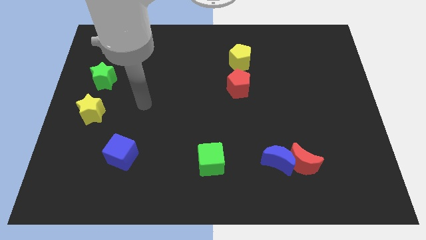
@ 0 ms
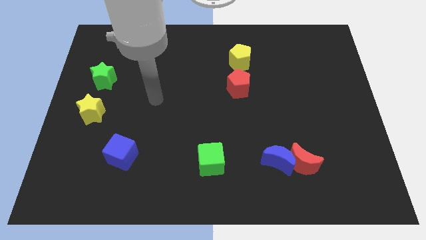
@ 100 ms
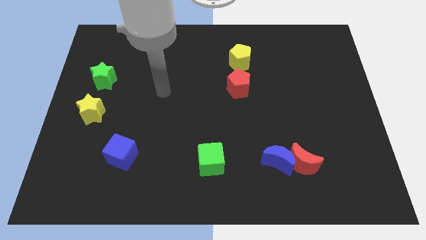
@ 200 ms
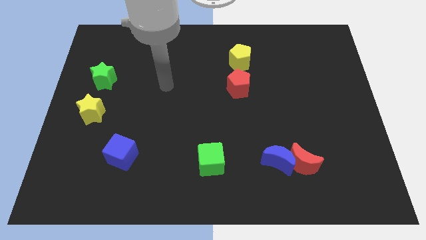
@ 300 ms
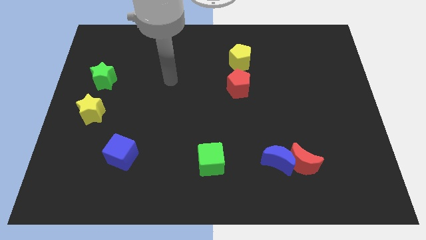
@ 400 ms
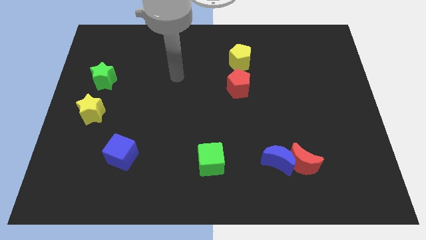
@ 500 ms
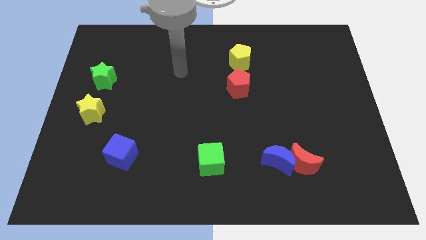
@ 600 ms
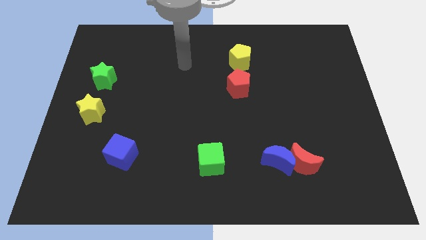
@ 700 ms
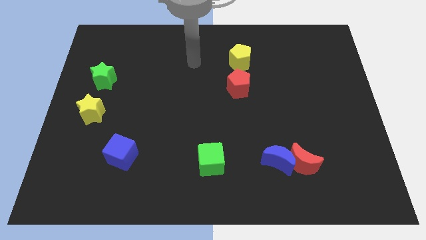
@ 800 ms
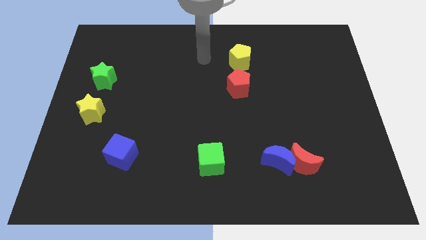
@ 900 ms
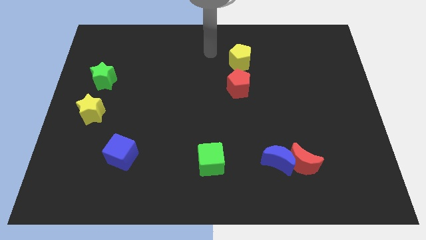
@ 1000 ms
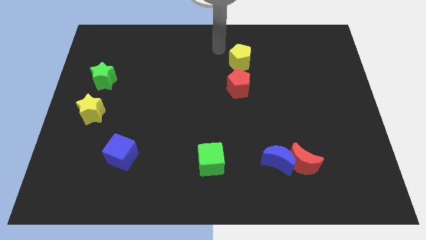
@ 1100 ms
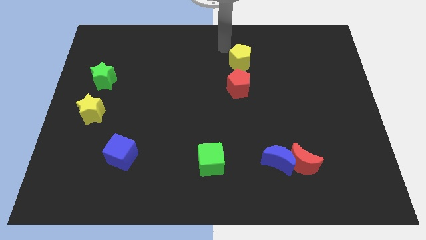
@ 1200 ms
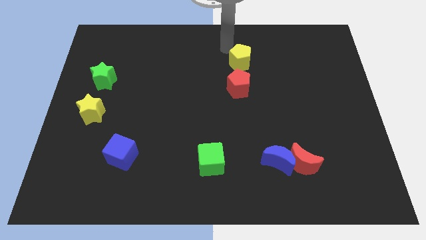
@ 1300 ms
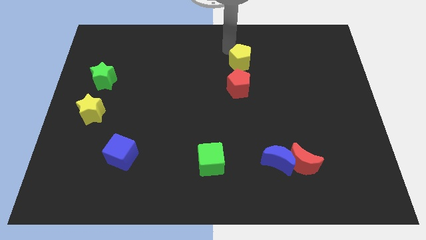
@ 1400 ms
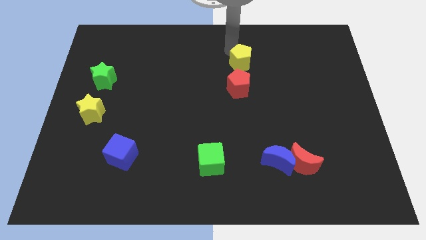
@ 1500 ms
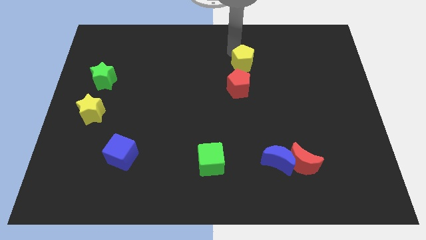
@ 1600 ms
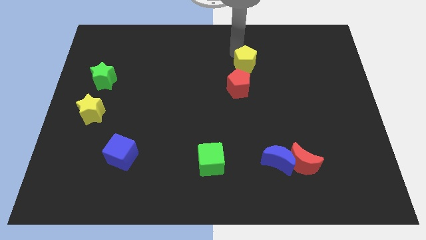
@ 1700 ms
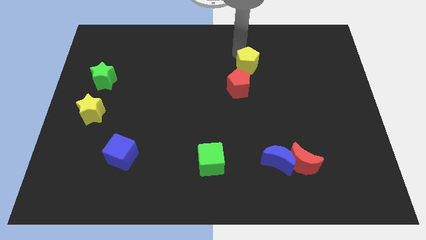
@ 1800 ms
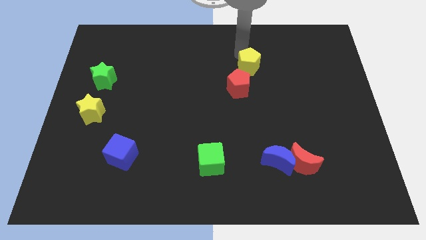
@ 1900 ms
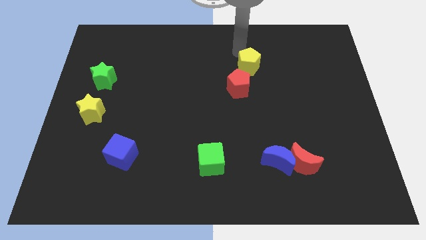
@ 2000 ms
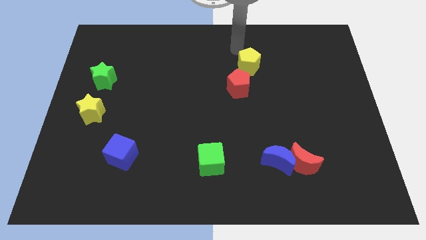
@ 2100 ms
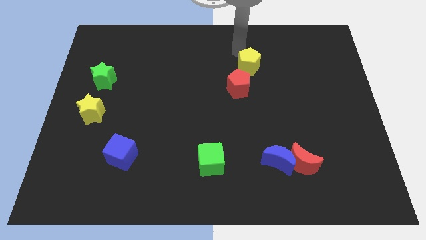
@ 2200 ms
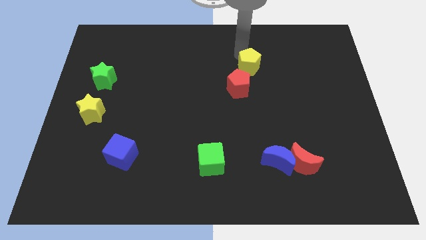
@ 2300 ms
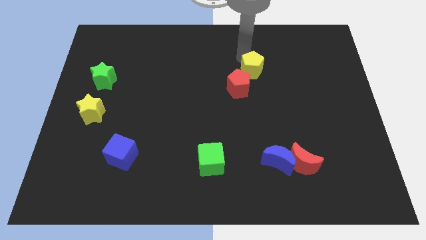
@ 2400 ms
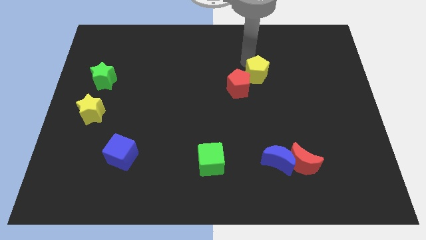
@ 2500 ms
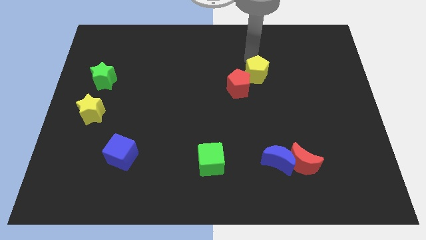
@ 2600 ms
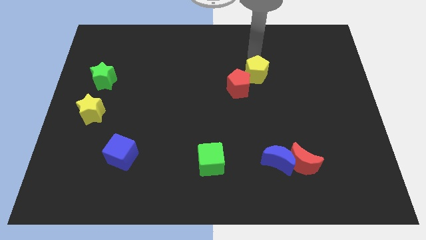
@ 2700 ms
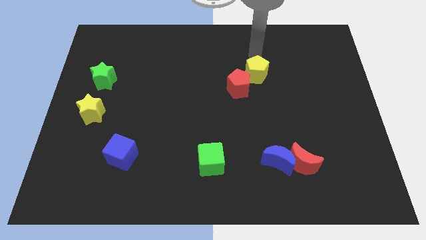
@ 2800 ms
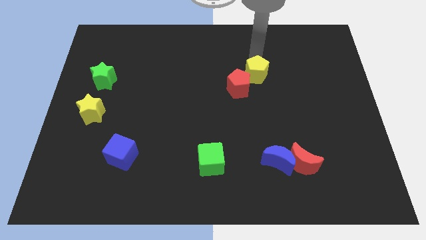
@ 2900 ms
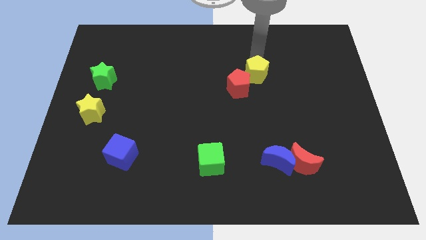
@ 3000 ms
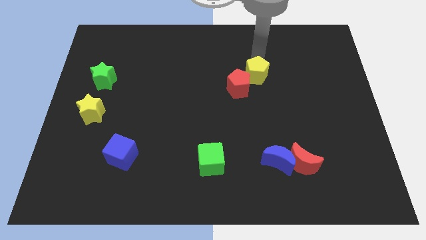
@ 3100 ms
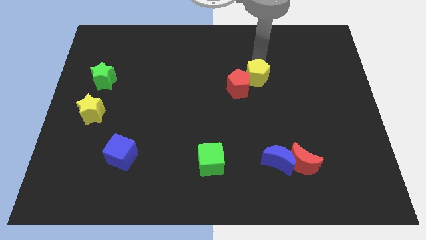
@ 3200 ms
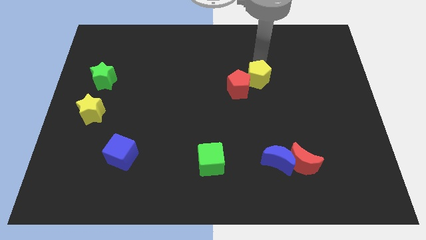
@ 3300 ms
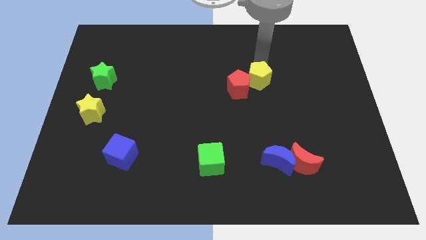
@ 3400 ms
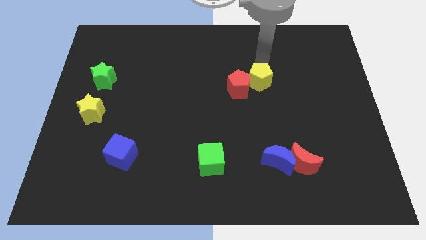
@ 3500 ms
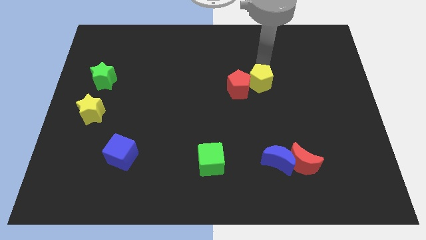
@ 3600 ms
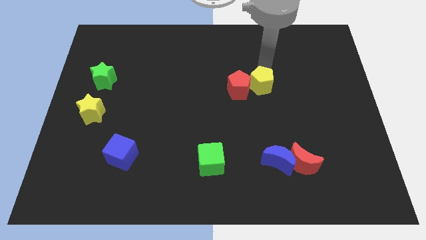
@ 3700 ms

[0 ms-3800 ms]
move the yellow pentagon slightly downwards

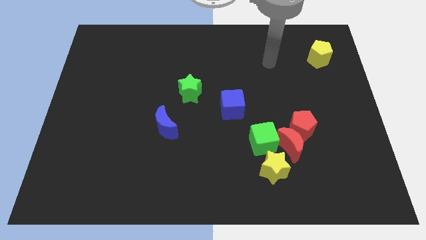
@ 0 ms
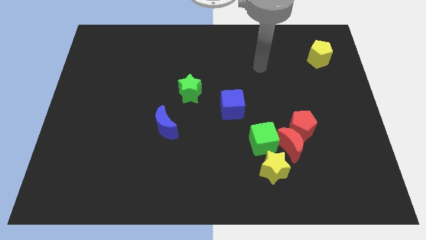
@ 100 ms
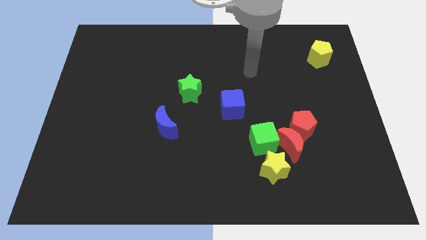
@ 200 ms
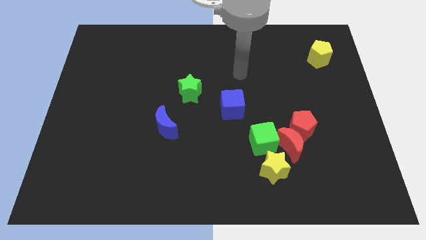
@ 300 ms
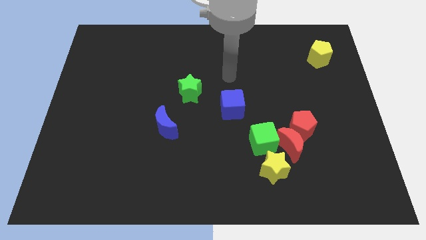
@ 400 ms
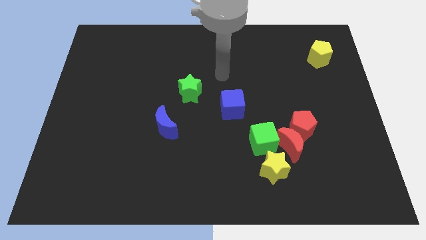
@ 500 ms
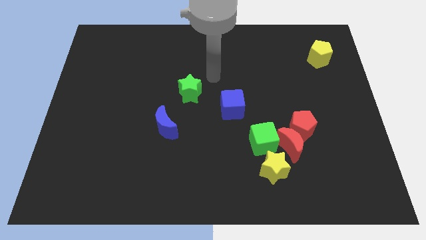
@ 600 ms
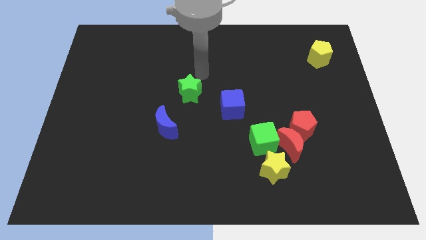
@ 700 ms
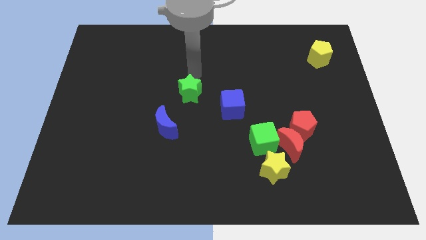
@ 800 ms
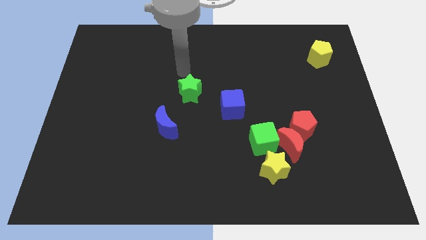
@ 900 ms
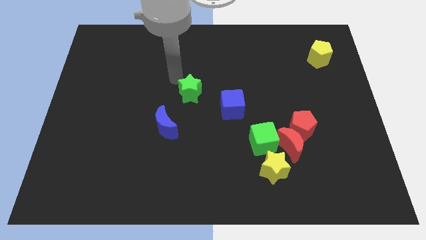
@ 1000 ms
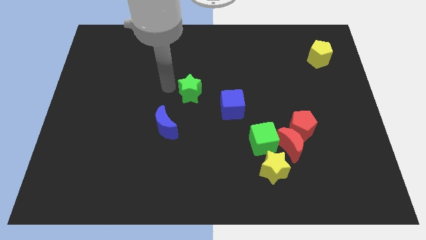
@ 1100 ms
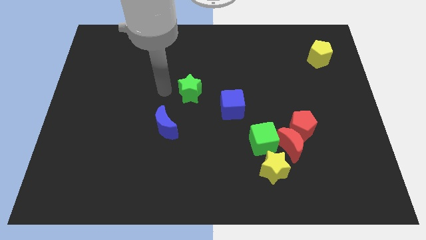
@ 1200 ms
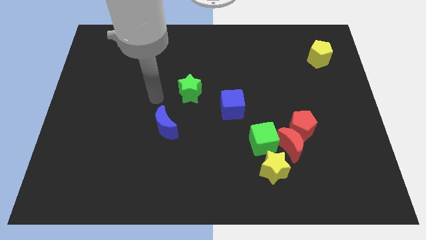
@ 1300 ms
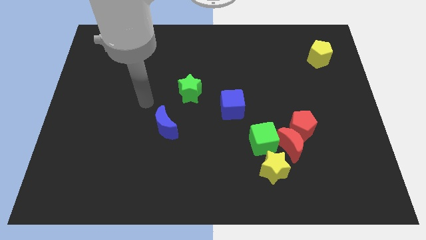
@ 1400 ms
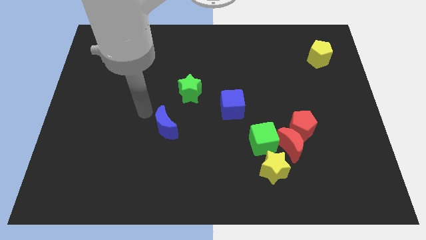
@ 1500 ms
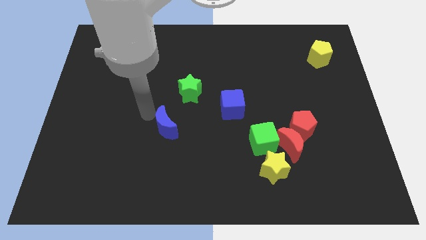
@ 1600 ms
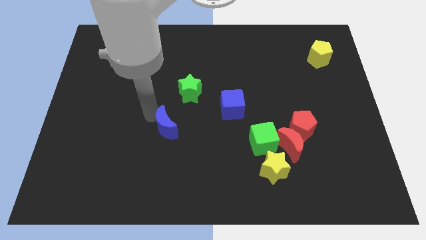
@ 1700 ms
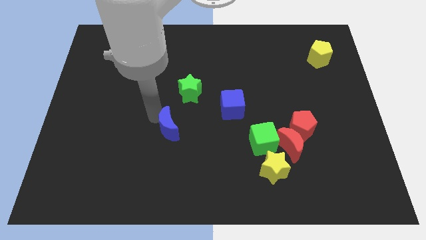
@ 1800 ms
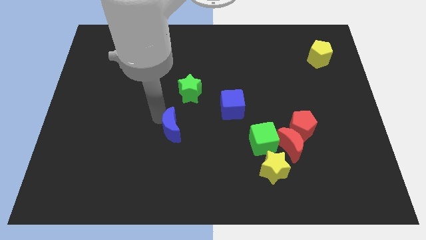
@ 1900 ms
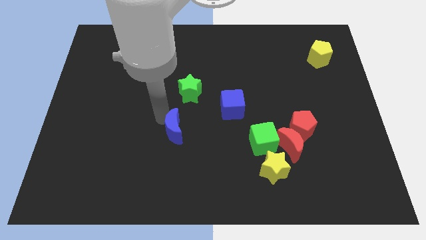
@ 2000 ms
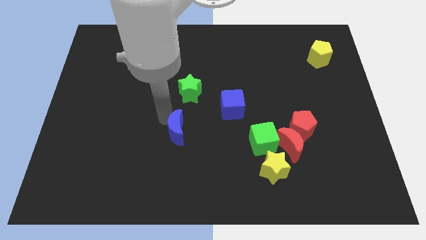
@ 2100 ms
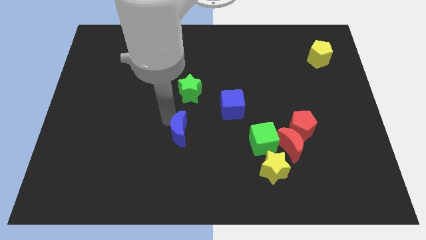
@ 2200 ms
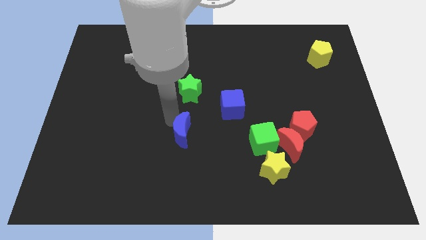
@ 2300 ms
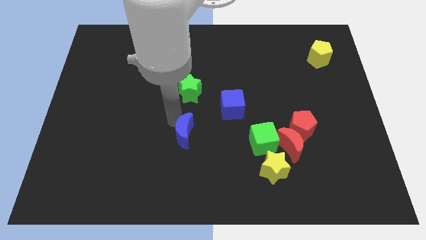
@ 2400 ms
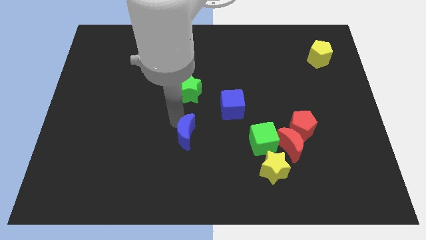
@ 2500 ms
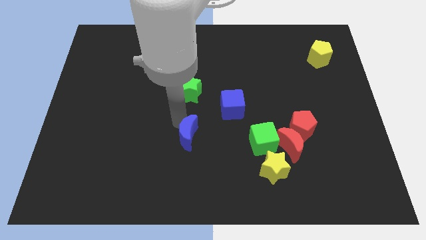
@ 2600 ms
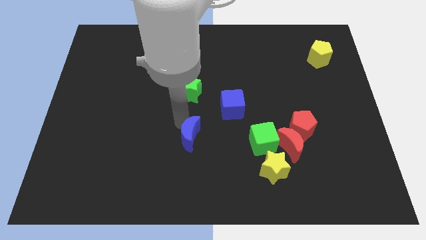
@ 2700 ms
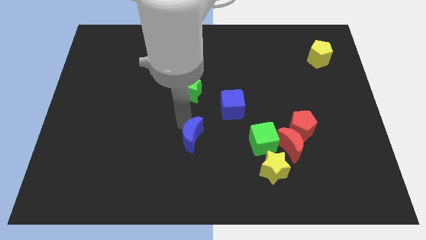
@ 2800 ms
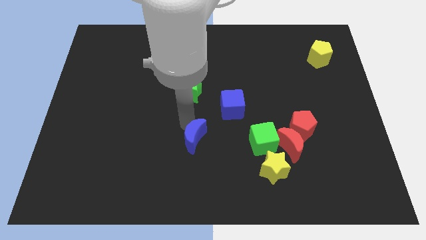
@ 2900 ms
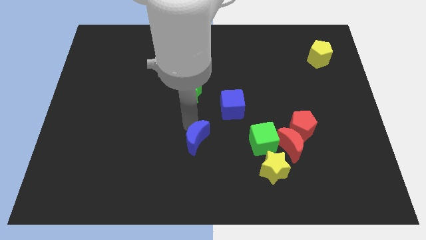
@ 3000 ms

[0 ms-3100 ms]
slightly slide the blue moon down and then to the right

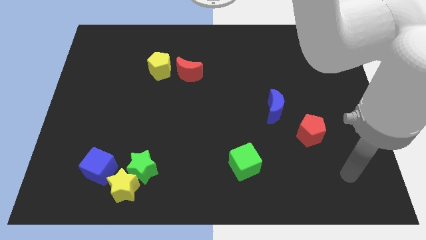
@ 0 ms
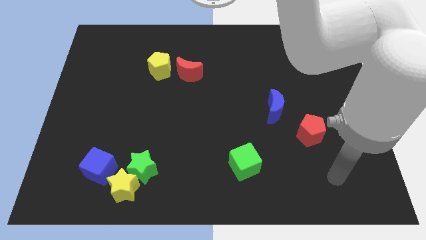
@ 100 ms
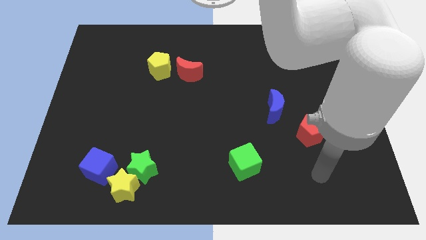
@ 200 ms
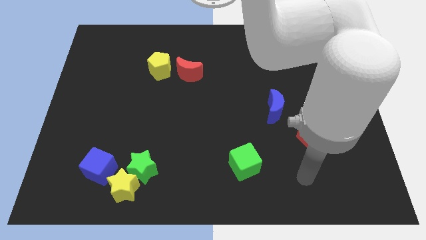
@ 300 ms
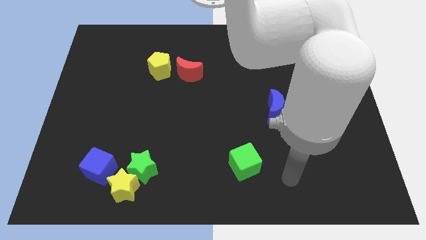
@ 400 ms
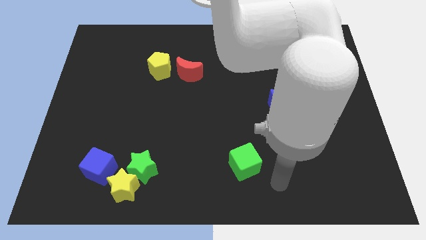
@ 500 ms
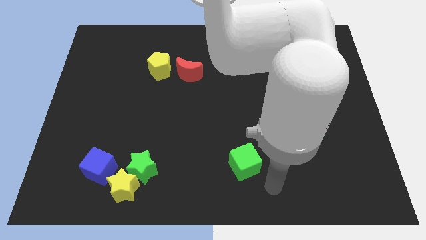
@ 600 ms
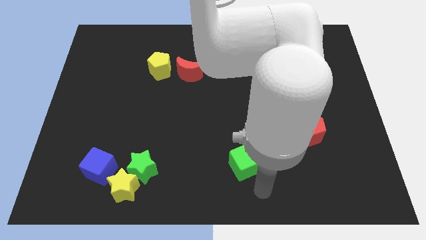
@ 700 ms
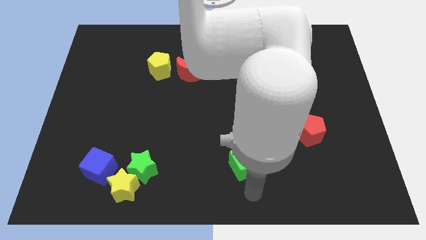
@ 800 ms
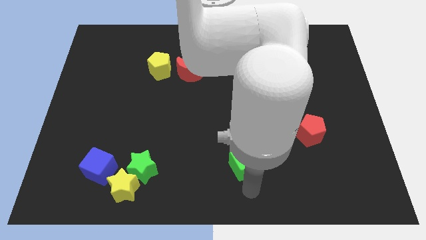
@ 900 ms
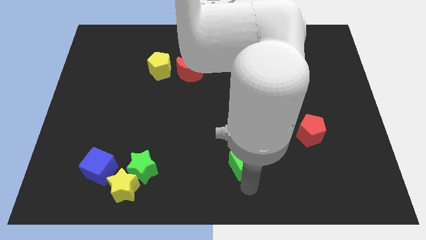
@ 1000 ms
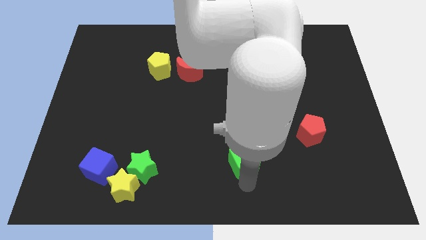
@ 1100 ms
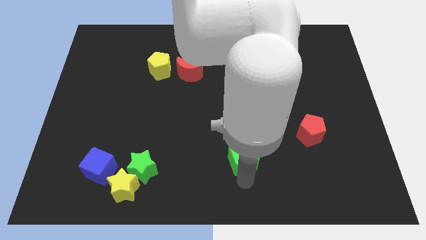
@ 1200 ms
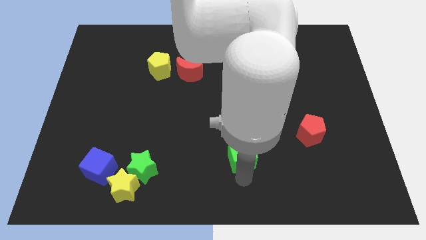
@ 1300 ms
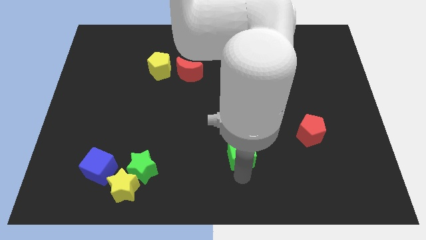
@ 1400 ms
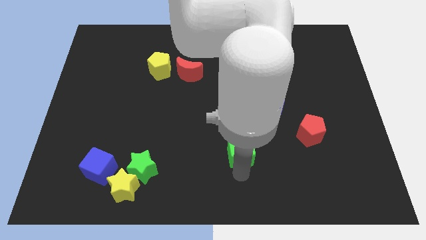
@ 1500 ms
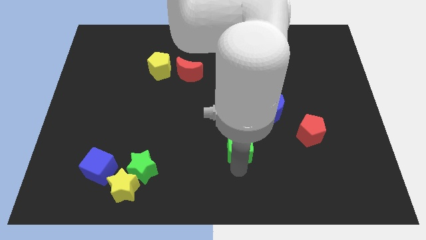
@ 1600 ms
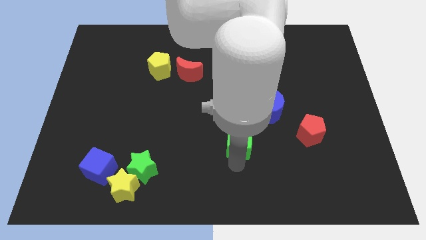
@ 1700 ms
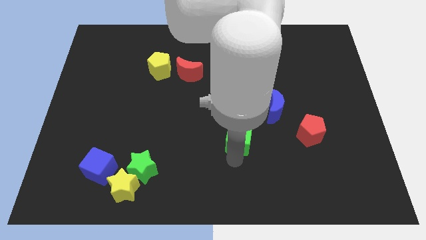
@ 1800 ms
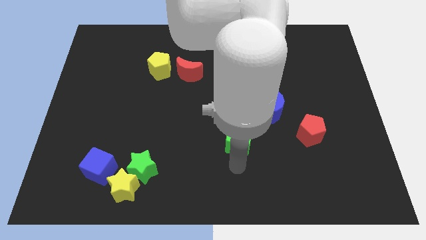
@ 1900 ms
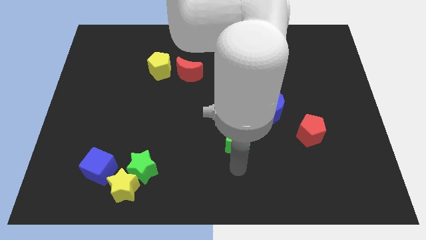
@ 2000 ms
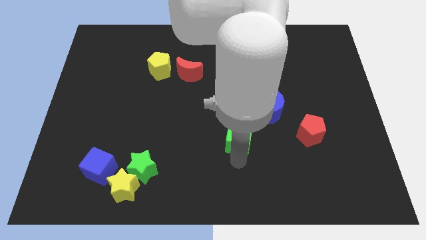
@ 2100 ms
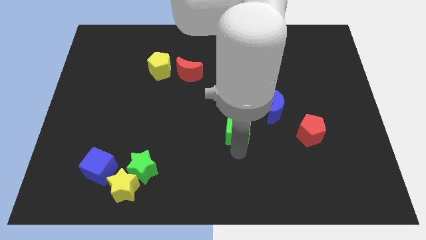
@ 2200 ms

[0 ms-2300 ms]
push the green cube slightly upwards
